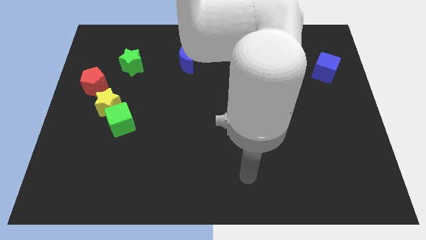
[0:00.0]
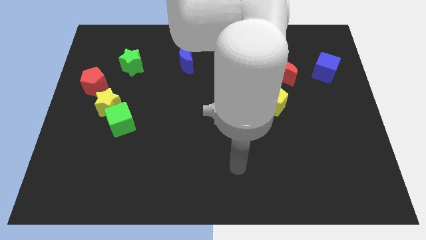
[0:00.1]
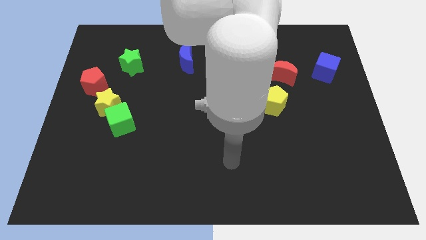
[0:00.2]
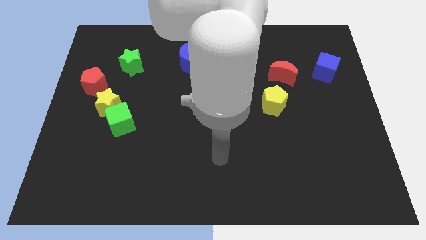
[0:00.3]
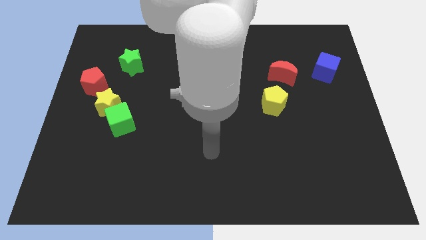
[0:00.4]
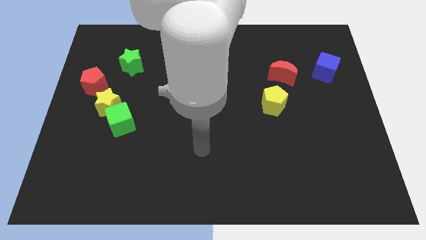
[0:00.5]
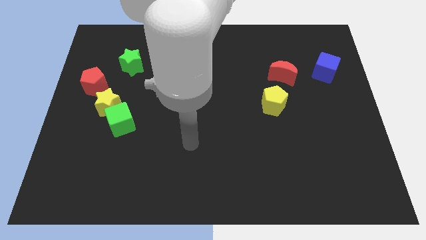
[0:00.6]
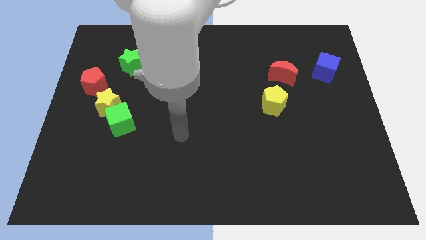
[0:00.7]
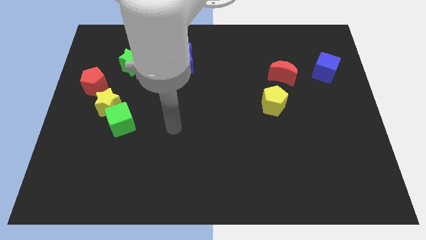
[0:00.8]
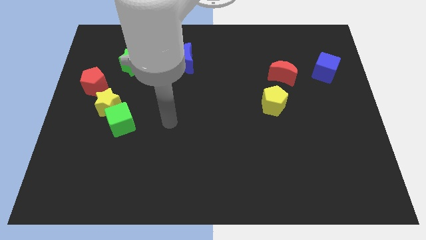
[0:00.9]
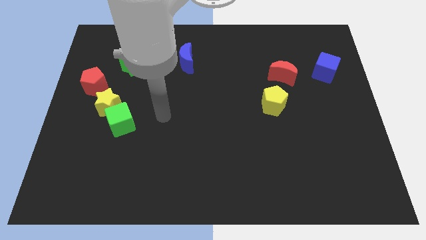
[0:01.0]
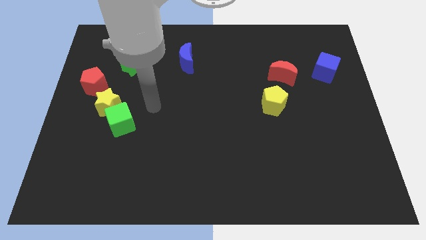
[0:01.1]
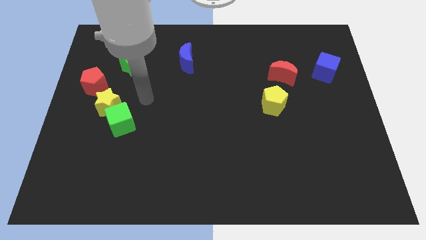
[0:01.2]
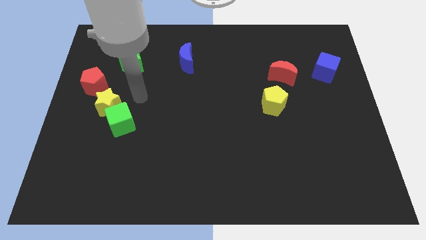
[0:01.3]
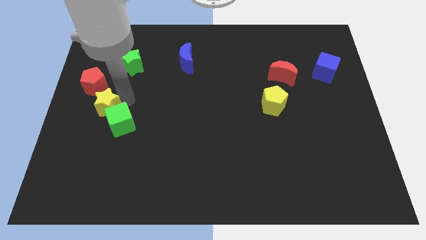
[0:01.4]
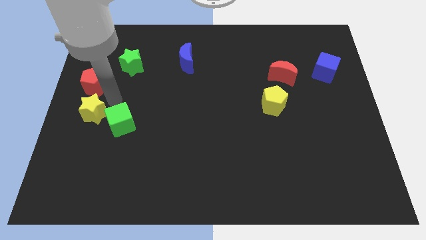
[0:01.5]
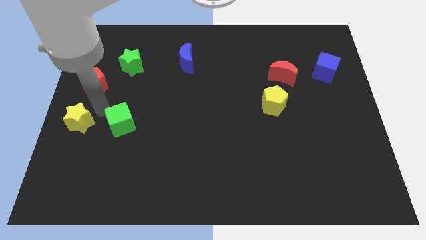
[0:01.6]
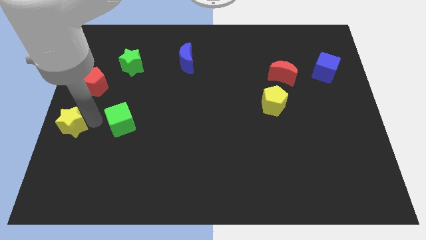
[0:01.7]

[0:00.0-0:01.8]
separate the green cube from the yellow star

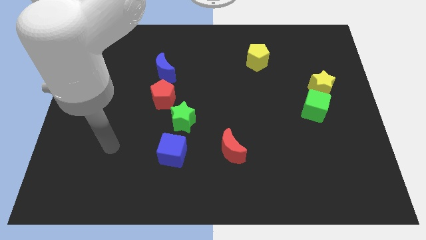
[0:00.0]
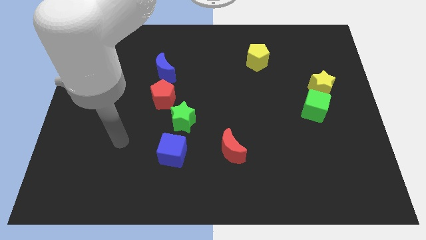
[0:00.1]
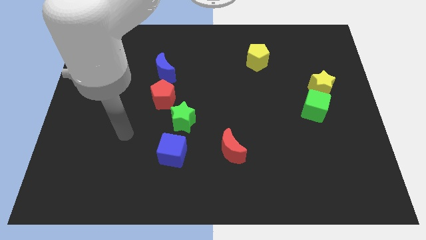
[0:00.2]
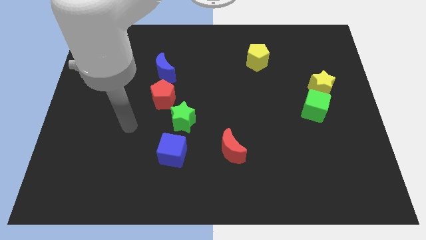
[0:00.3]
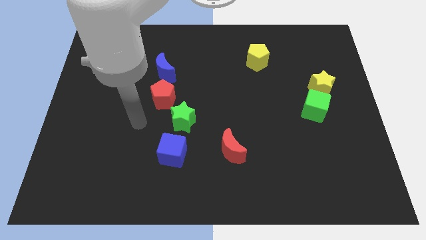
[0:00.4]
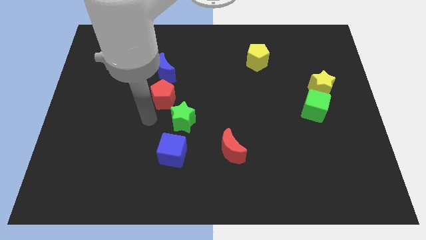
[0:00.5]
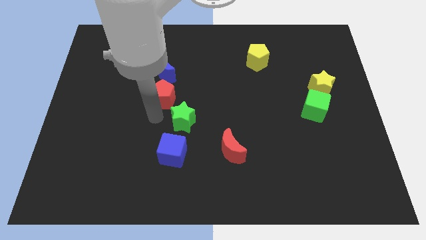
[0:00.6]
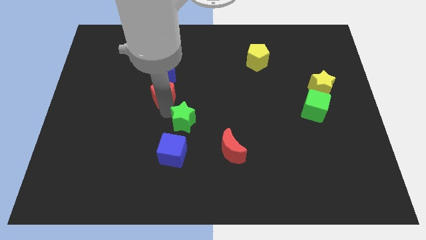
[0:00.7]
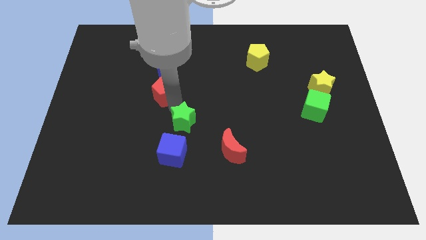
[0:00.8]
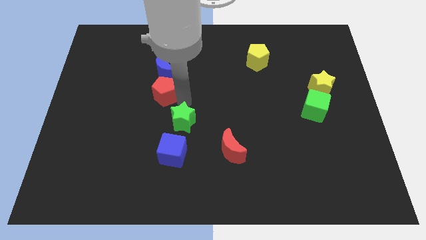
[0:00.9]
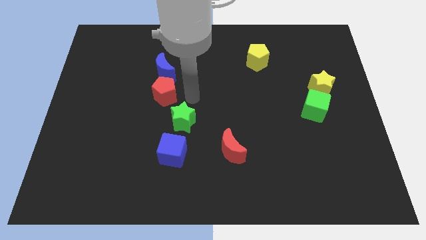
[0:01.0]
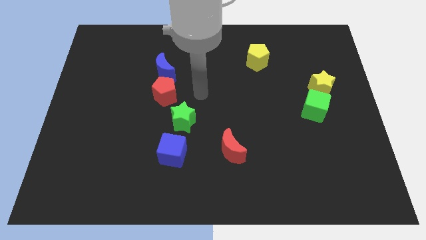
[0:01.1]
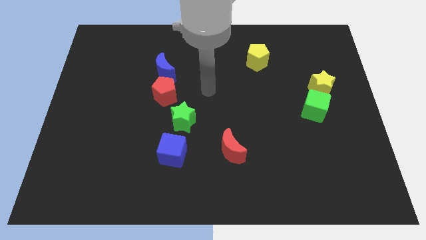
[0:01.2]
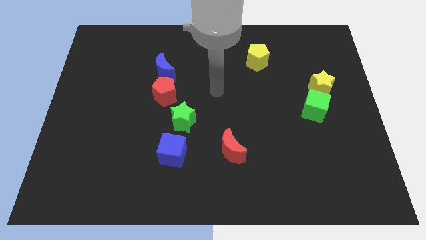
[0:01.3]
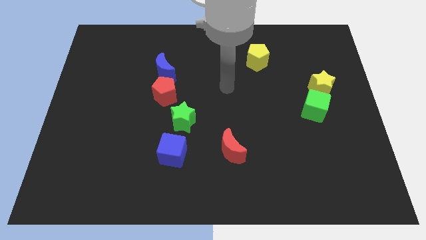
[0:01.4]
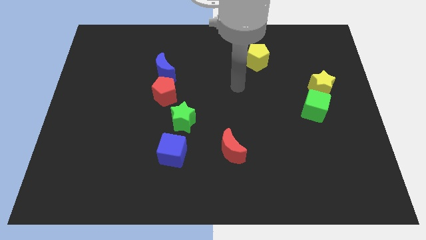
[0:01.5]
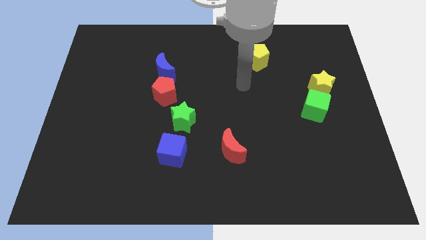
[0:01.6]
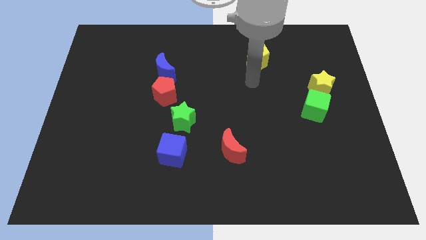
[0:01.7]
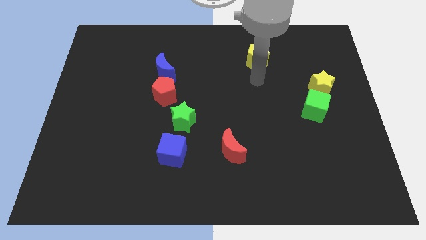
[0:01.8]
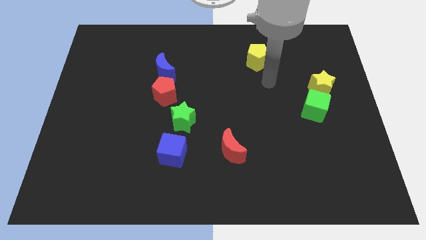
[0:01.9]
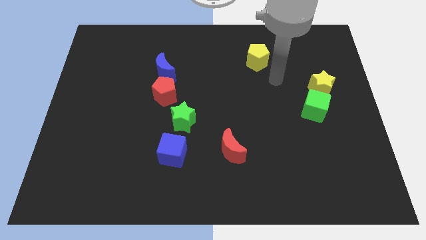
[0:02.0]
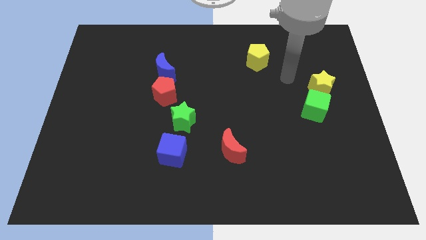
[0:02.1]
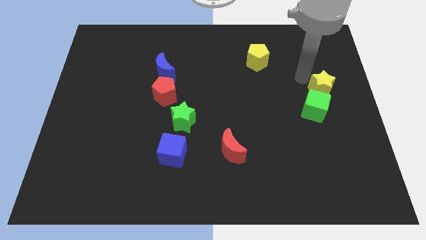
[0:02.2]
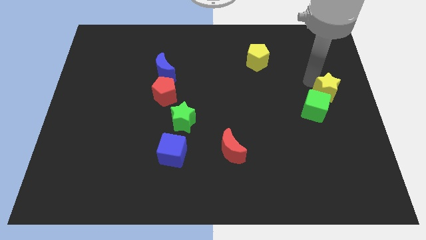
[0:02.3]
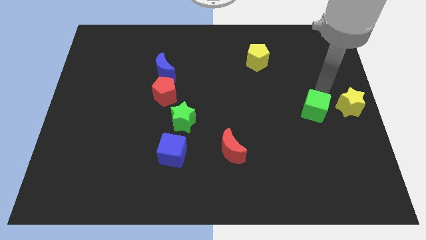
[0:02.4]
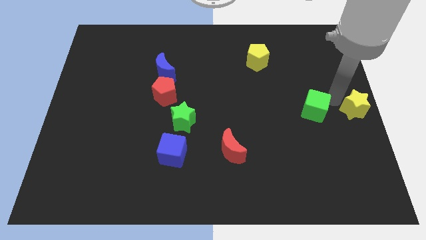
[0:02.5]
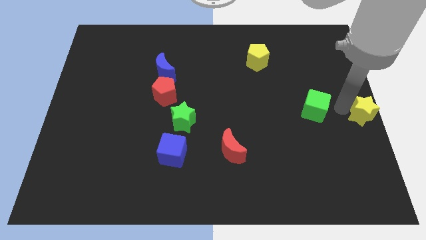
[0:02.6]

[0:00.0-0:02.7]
move the green cube away from the yellow star

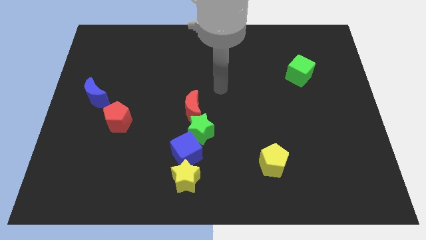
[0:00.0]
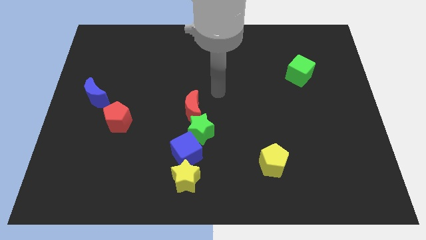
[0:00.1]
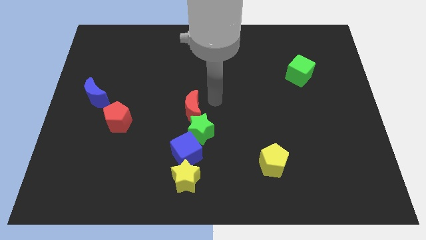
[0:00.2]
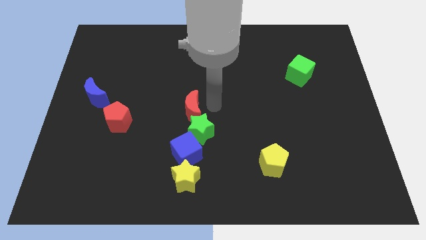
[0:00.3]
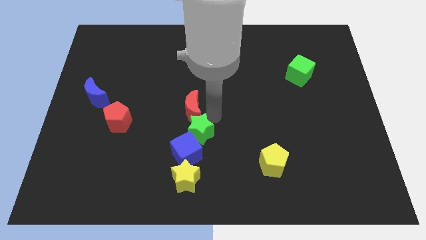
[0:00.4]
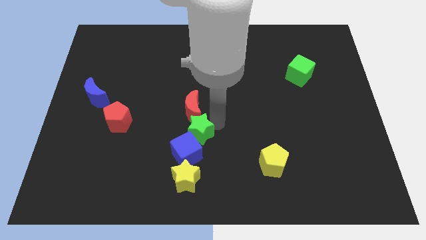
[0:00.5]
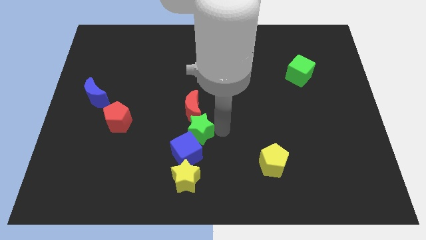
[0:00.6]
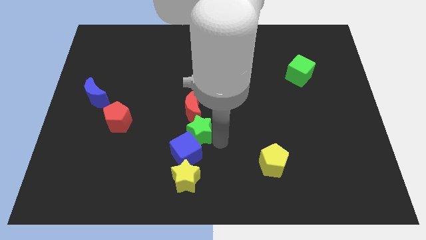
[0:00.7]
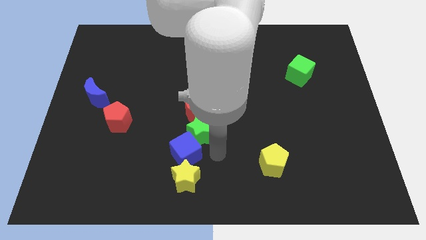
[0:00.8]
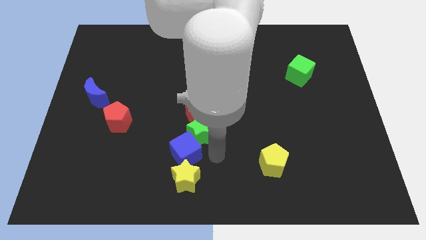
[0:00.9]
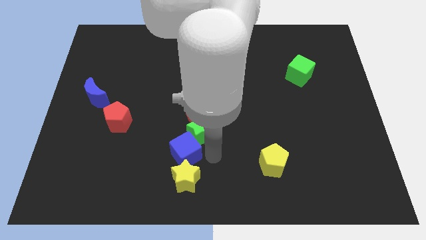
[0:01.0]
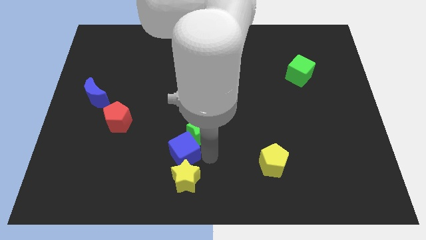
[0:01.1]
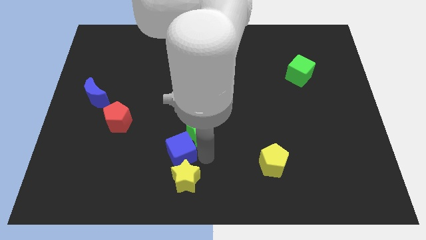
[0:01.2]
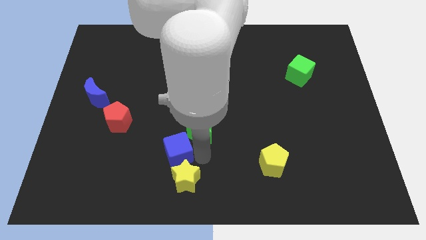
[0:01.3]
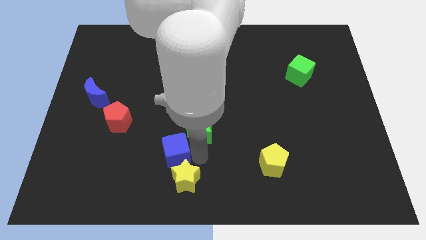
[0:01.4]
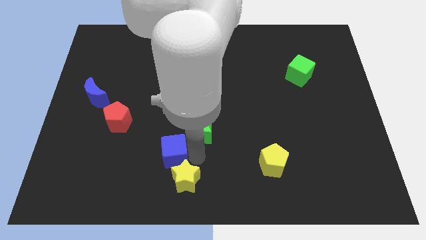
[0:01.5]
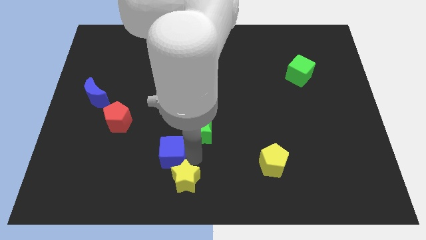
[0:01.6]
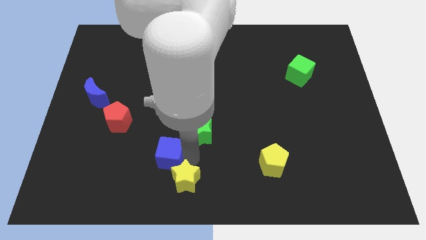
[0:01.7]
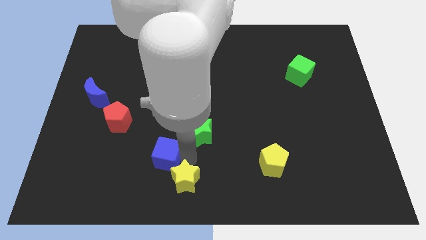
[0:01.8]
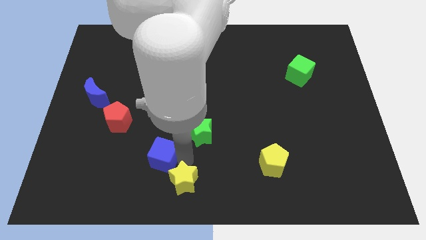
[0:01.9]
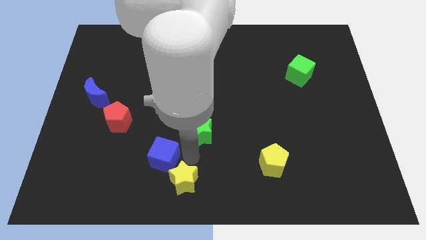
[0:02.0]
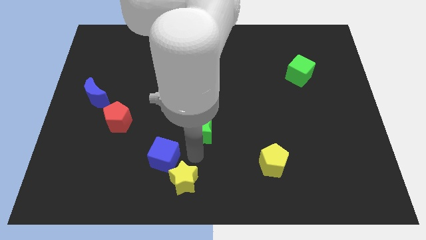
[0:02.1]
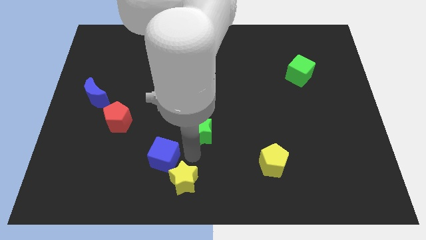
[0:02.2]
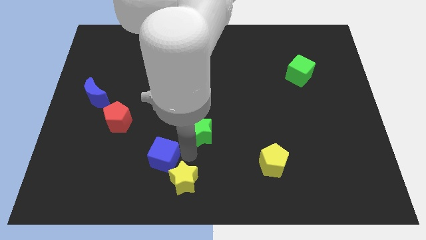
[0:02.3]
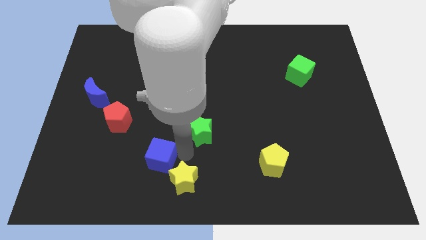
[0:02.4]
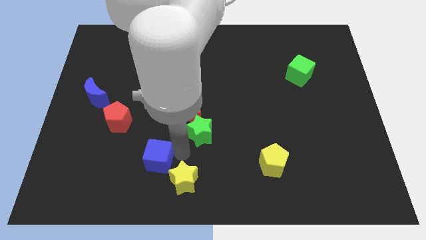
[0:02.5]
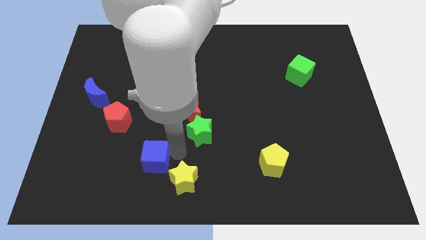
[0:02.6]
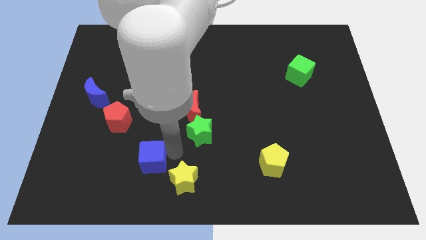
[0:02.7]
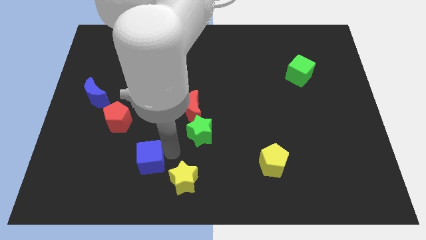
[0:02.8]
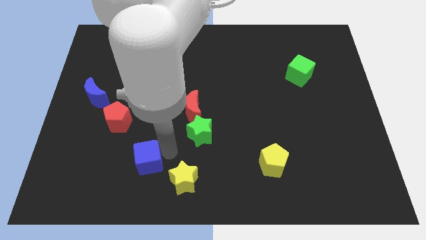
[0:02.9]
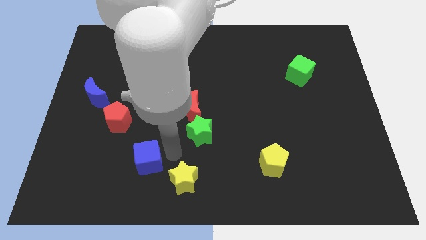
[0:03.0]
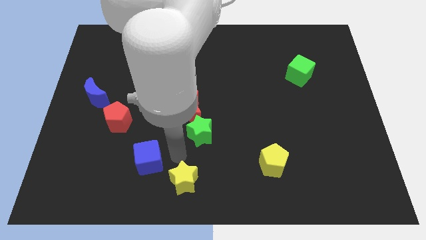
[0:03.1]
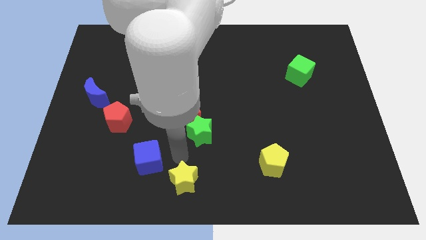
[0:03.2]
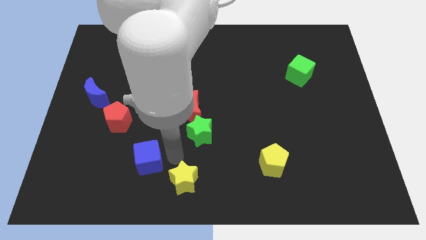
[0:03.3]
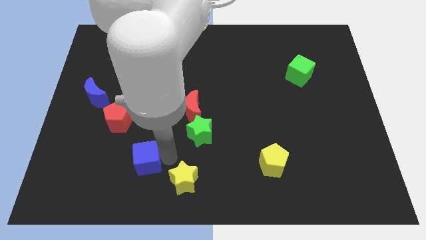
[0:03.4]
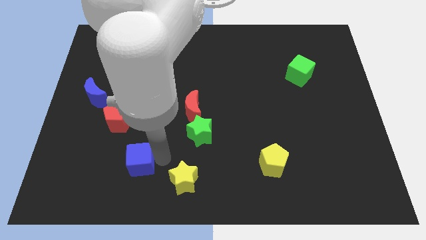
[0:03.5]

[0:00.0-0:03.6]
separate the blue cube from the green star and yellow star

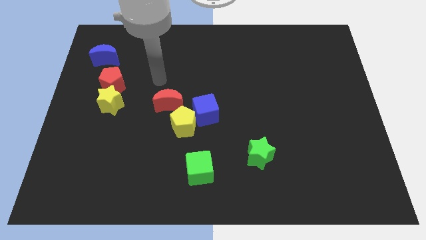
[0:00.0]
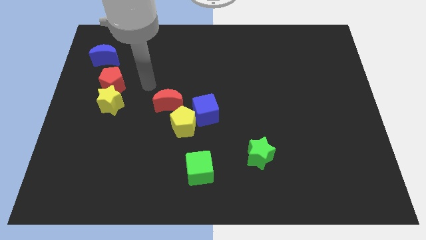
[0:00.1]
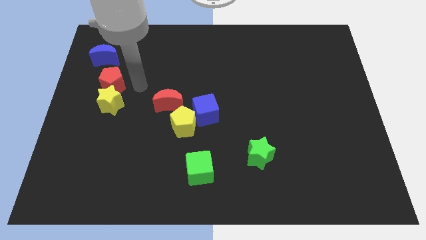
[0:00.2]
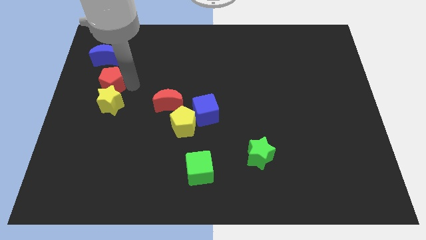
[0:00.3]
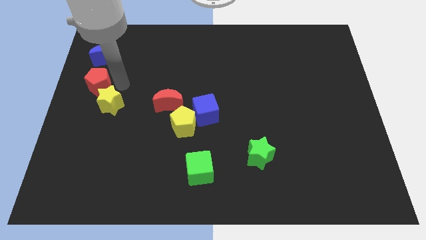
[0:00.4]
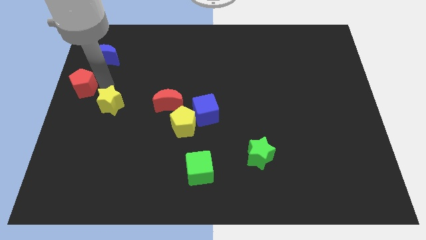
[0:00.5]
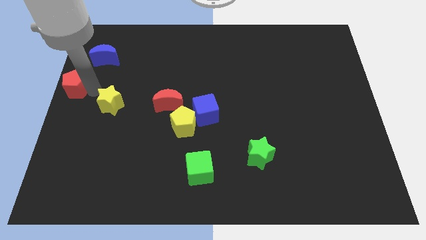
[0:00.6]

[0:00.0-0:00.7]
pull the yellow star apart from the red pentagon

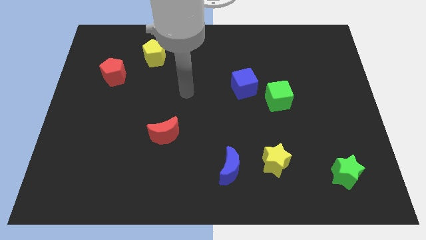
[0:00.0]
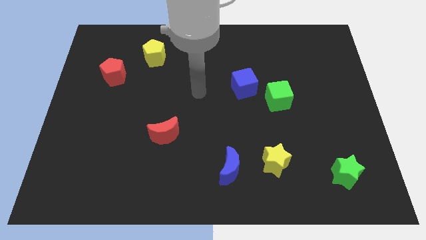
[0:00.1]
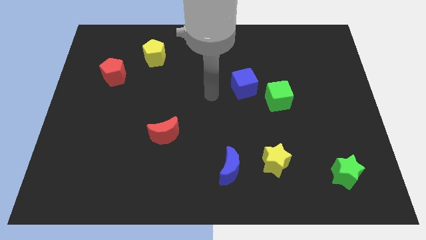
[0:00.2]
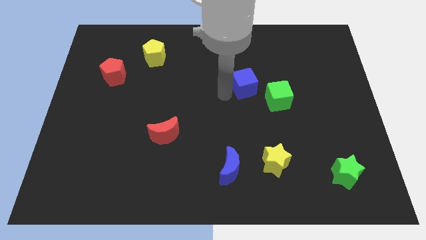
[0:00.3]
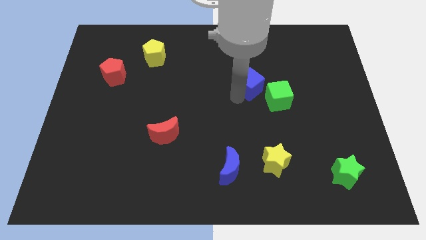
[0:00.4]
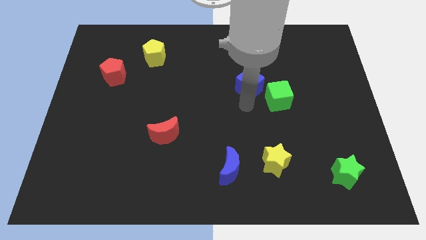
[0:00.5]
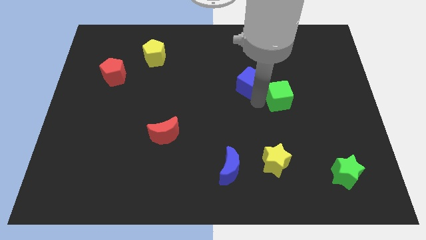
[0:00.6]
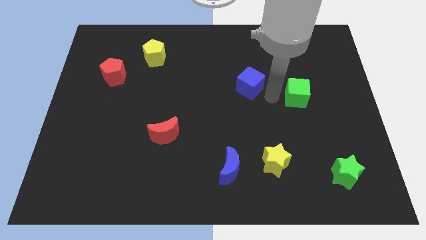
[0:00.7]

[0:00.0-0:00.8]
move the blue cube away from the green cube
